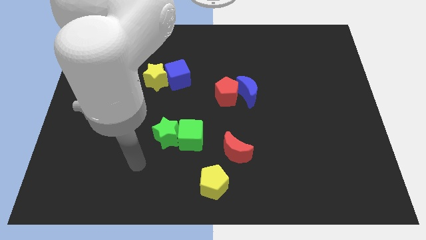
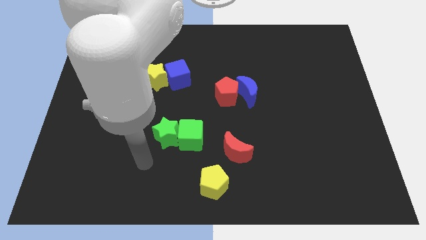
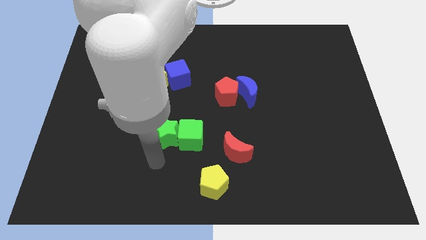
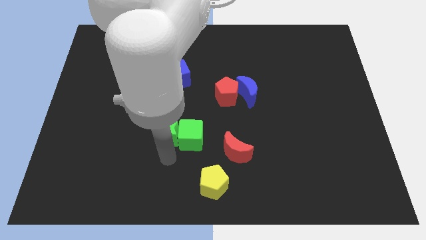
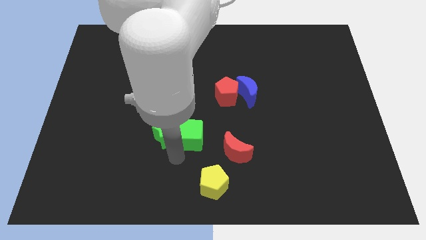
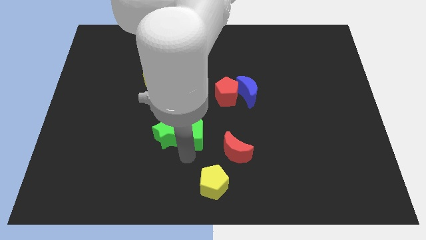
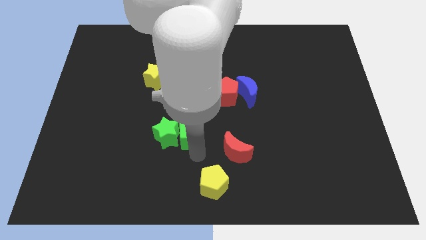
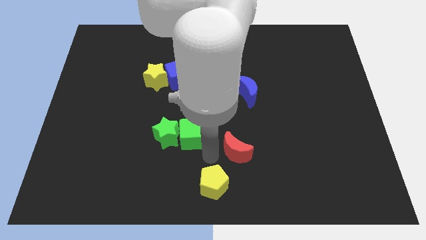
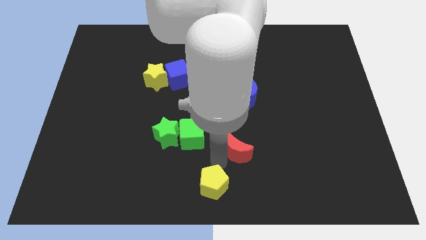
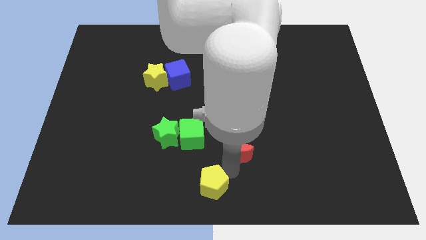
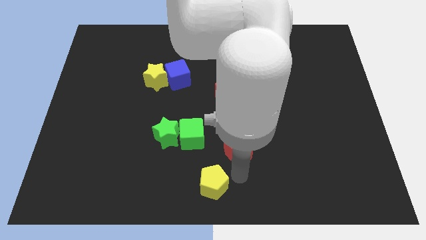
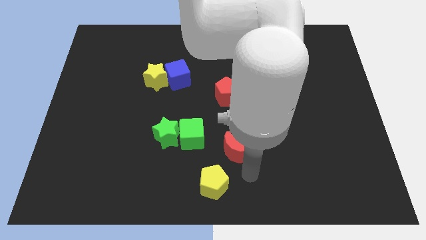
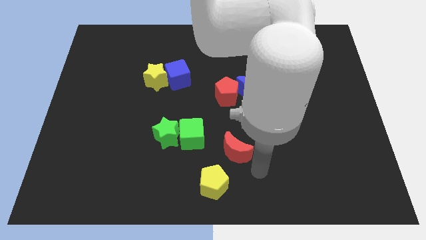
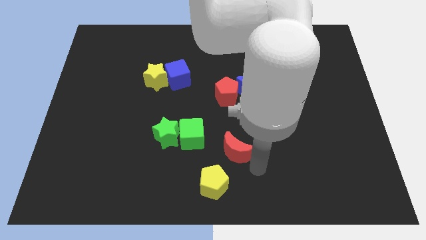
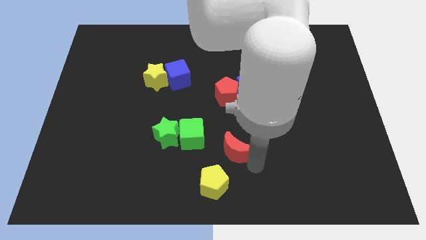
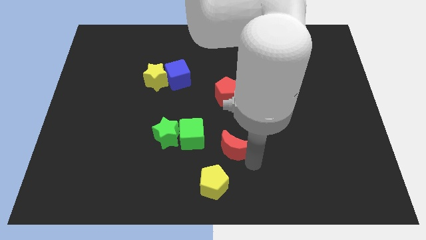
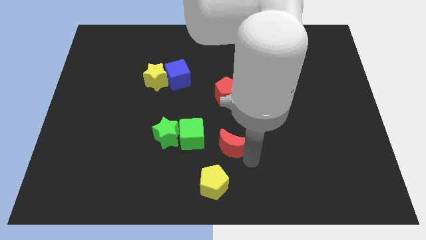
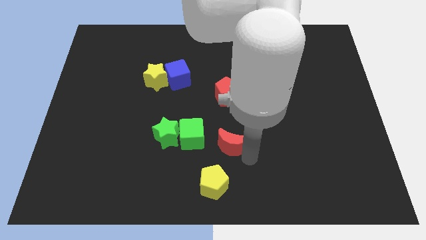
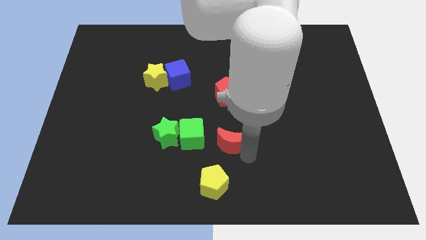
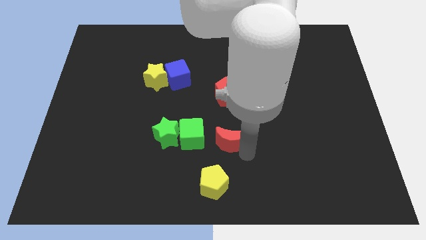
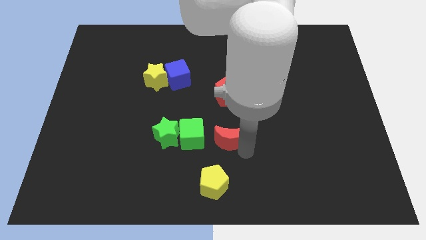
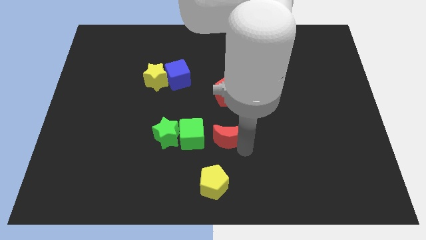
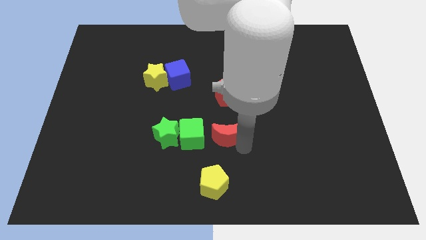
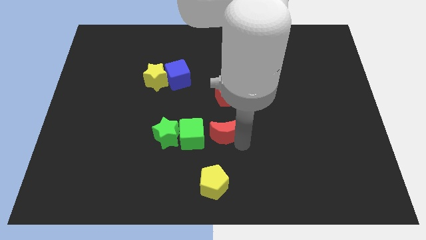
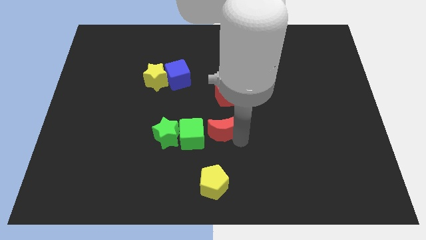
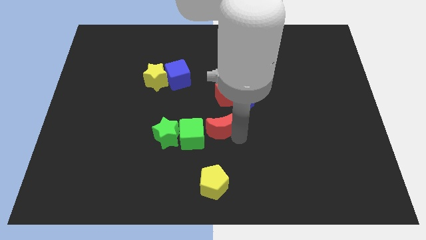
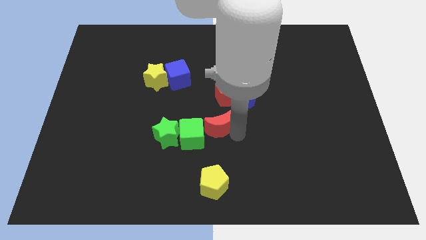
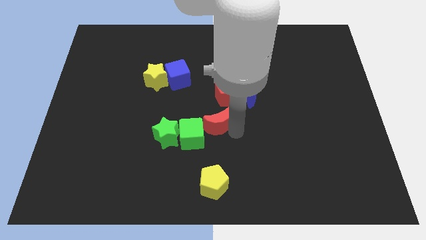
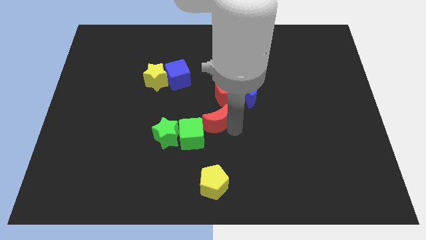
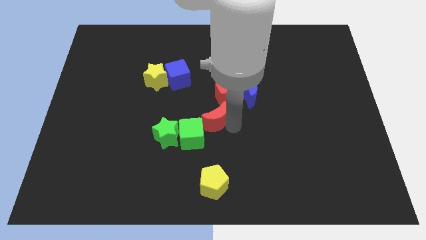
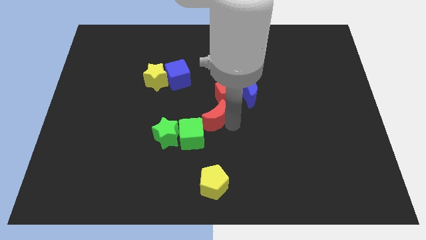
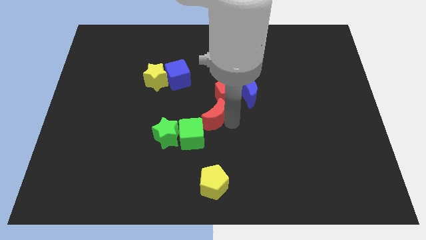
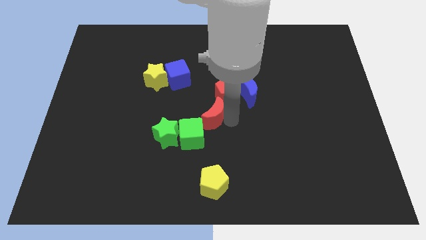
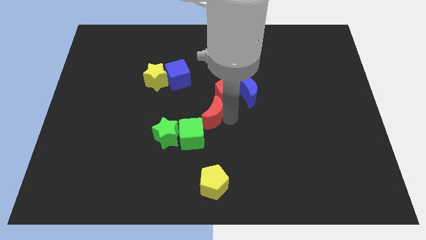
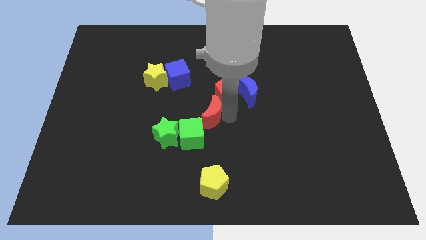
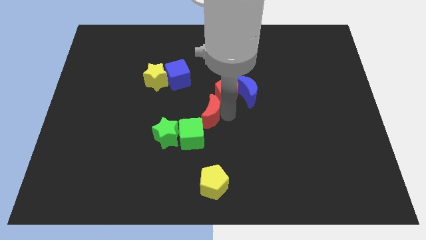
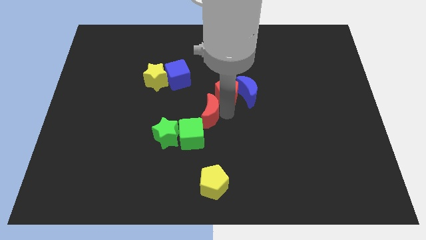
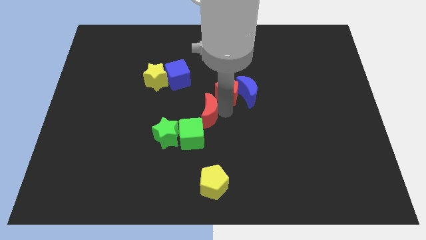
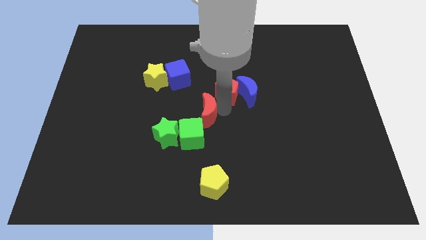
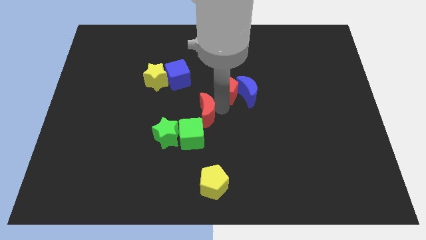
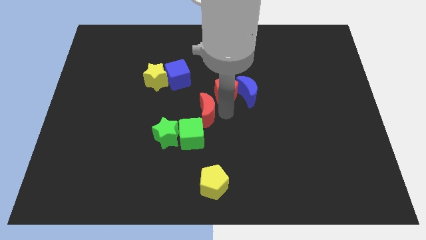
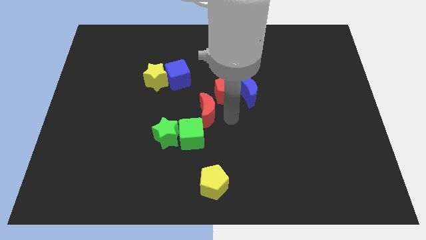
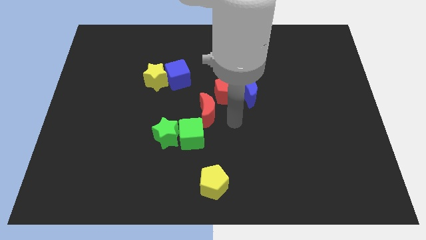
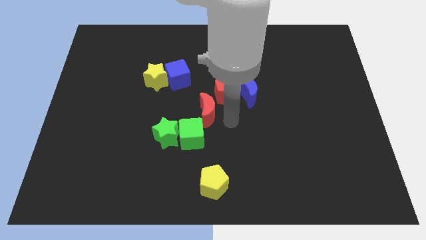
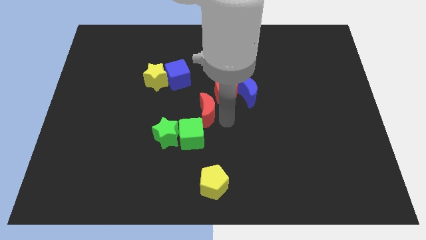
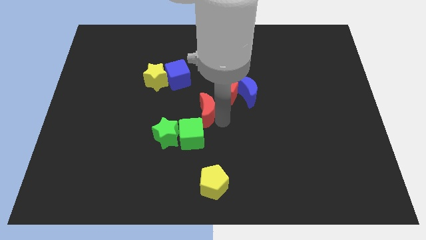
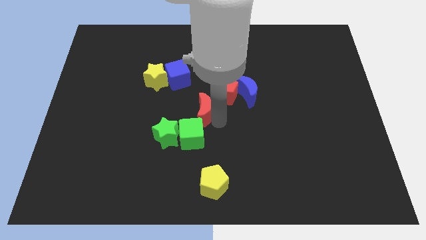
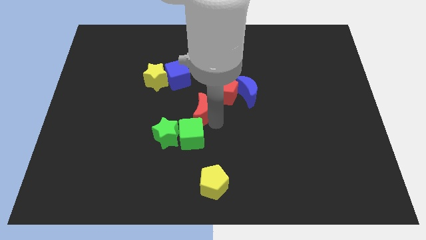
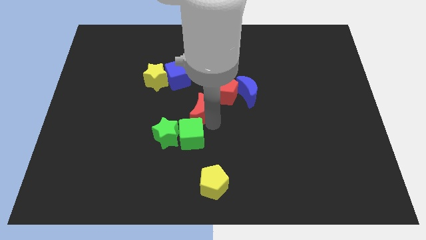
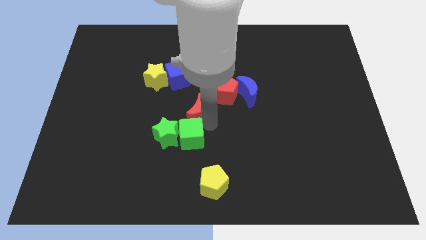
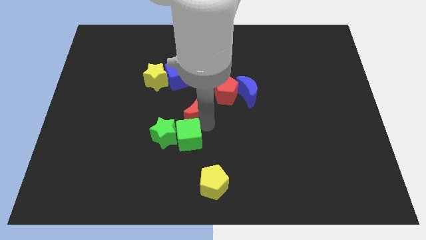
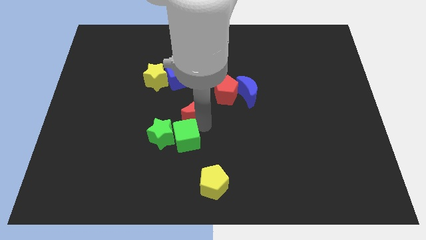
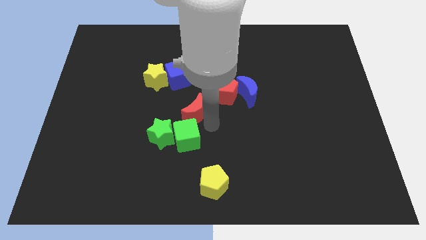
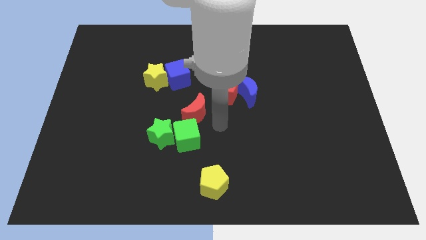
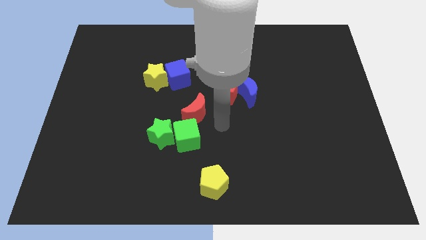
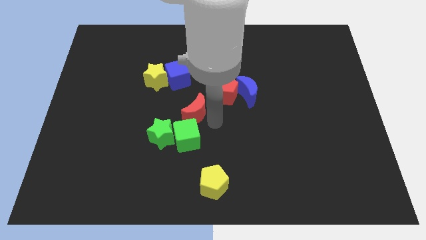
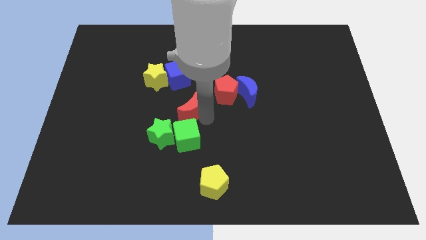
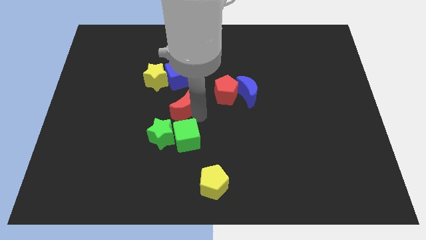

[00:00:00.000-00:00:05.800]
put the red moon above the green star

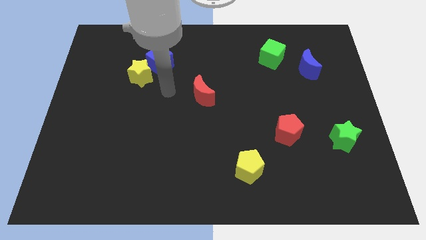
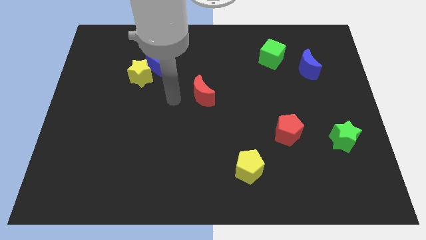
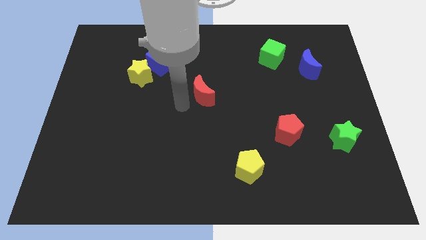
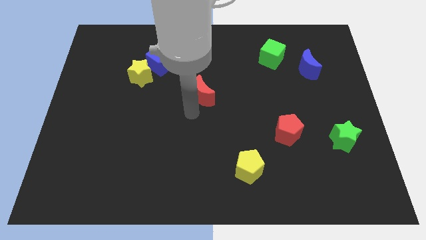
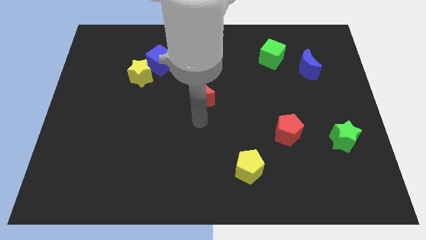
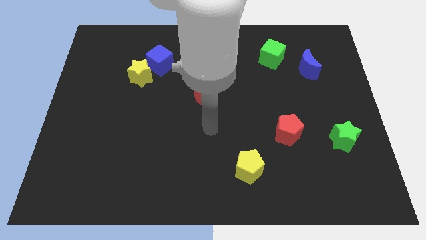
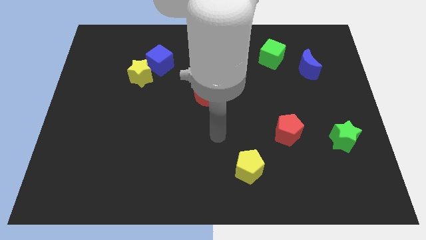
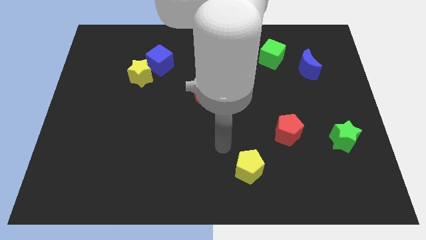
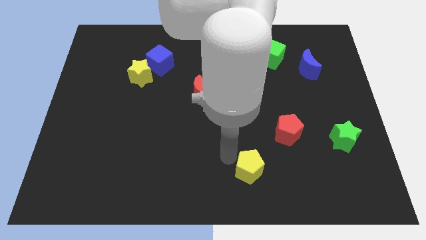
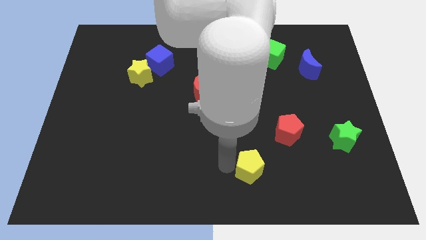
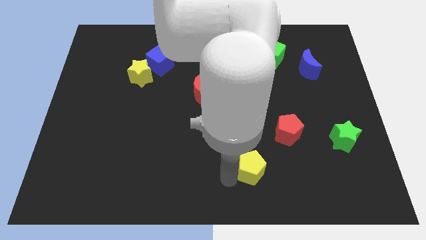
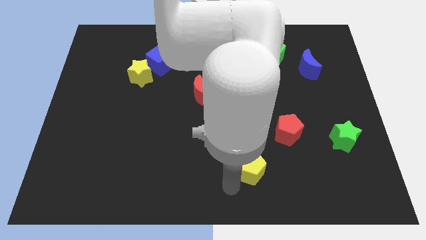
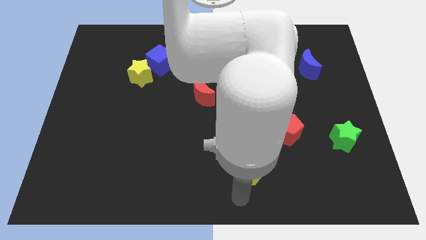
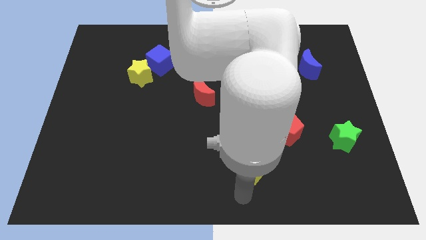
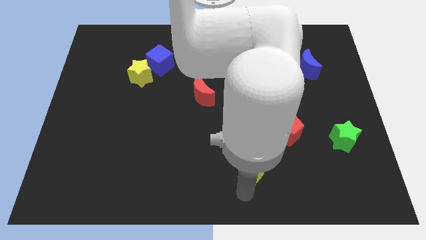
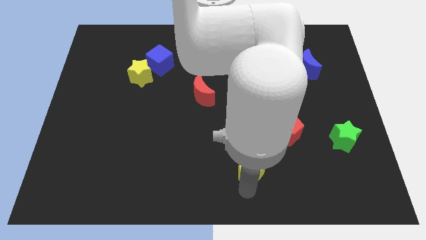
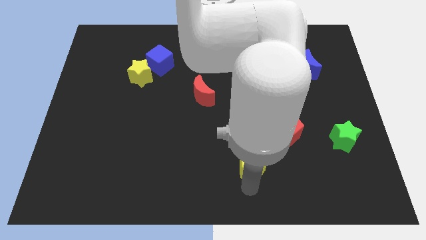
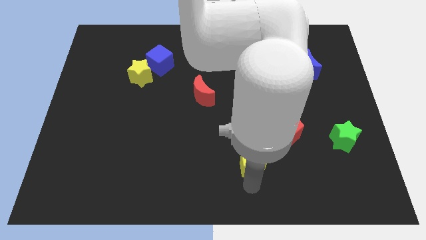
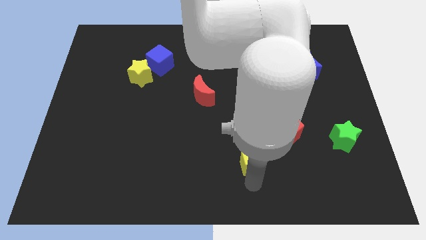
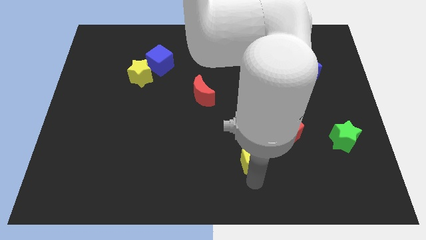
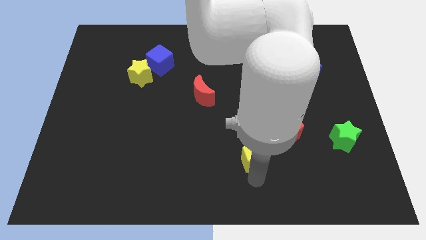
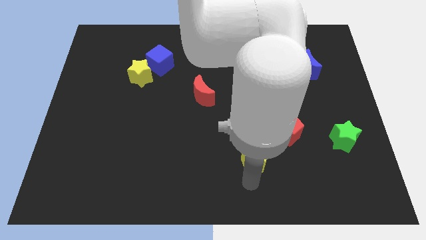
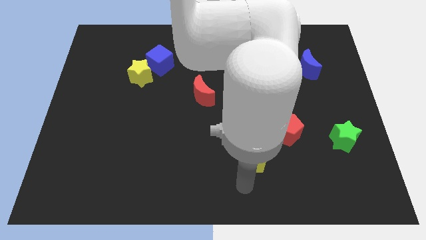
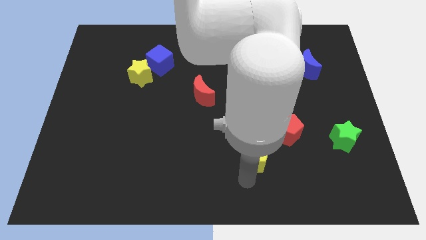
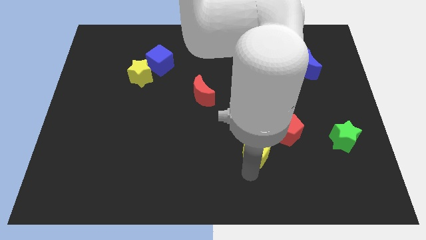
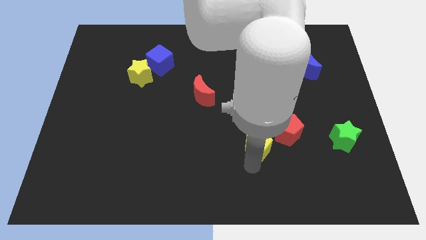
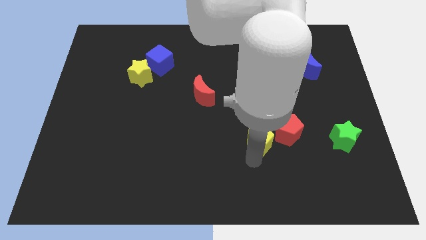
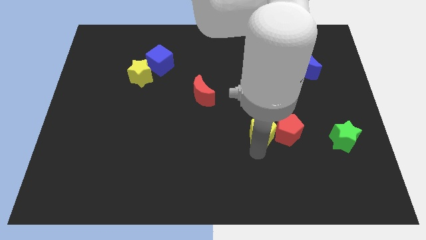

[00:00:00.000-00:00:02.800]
slide the yellow pentagon to the top left side of the red pentagon
